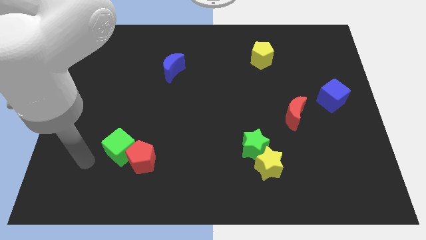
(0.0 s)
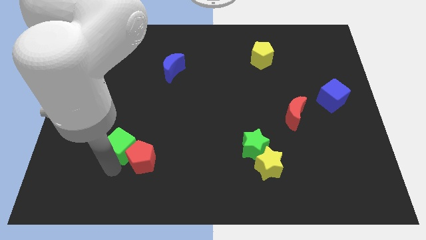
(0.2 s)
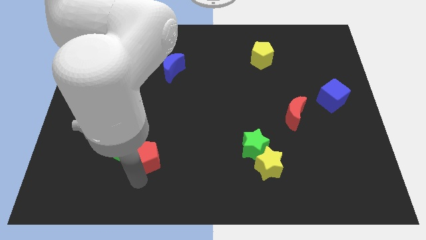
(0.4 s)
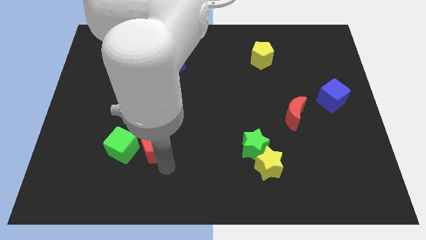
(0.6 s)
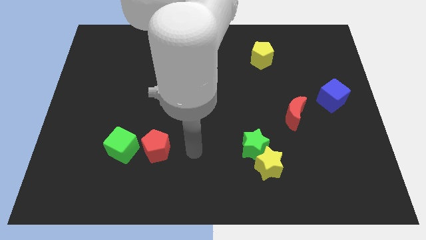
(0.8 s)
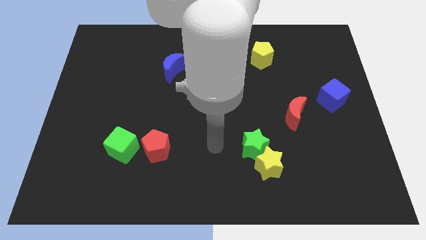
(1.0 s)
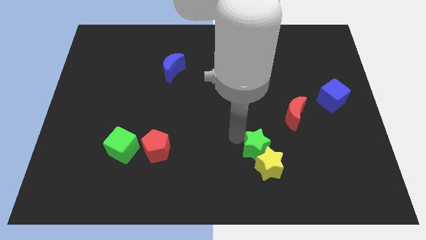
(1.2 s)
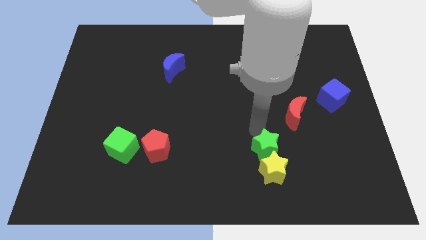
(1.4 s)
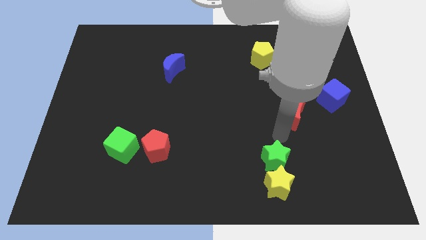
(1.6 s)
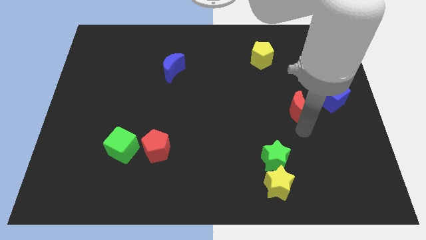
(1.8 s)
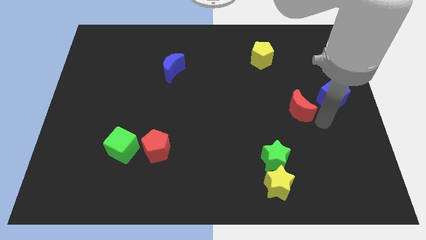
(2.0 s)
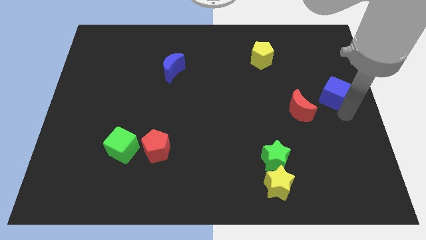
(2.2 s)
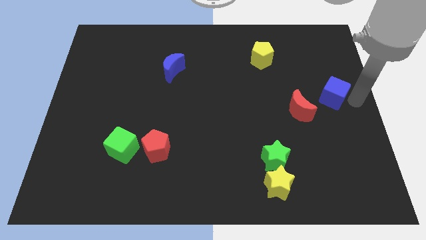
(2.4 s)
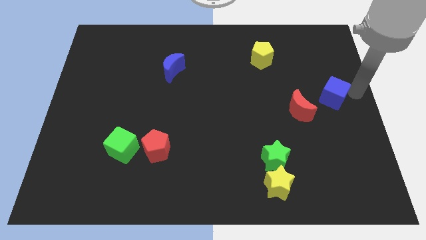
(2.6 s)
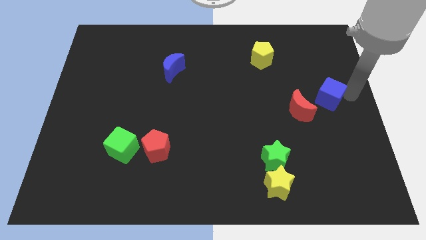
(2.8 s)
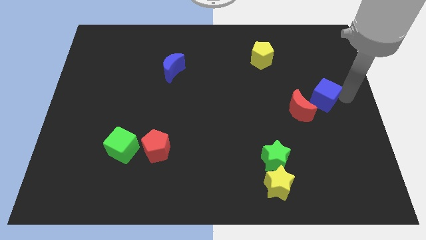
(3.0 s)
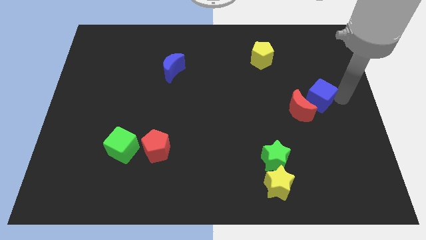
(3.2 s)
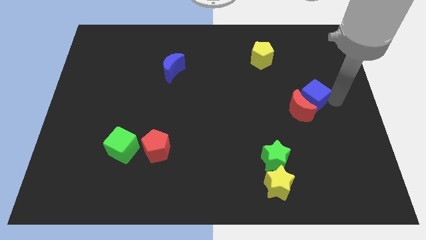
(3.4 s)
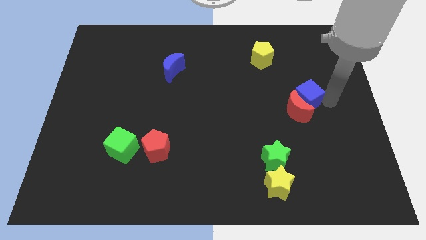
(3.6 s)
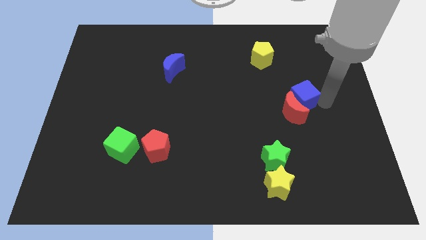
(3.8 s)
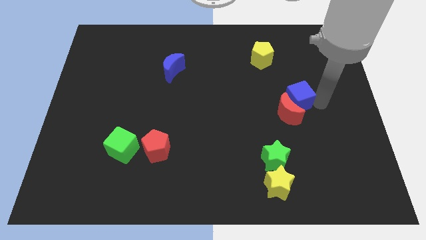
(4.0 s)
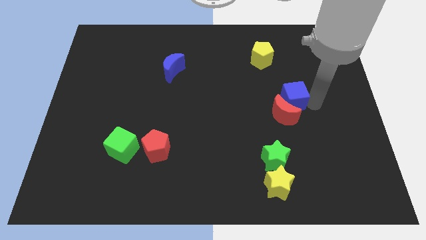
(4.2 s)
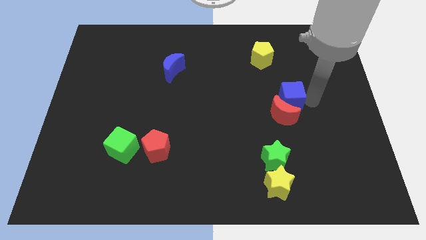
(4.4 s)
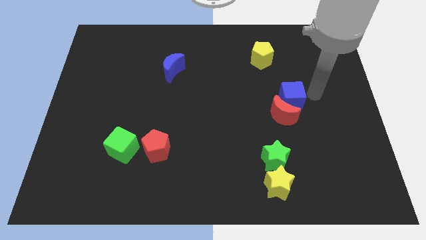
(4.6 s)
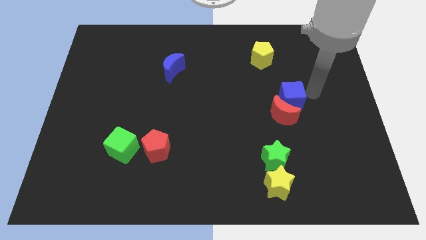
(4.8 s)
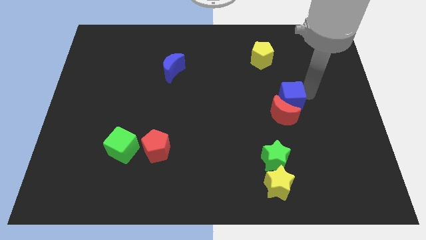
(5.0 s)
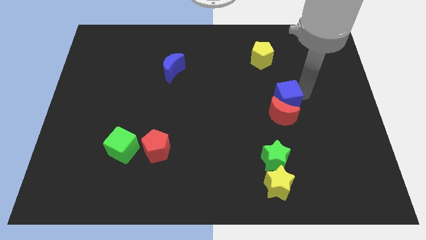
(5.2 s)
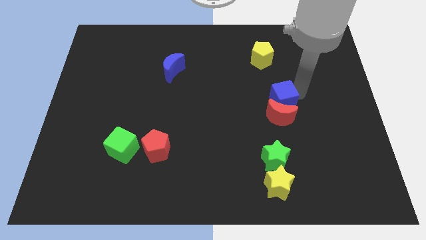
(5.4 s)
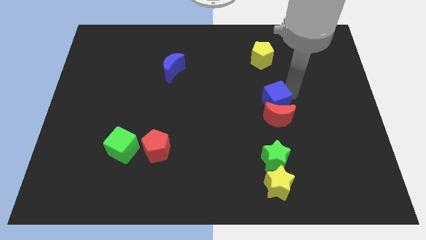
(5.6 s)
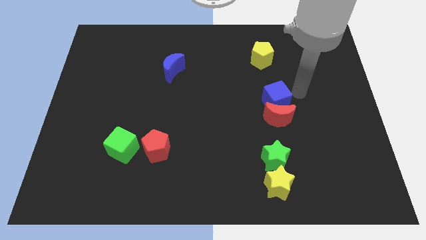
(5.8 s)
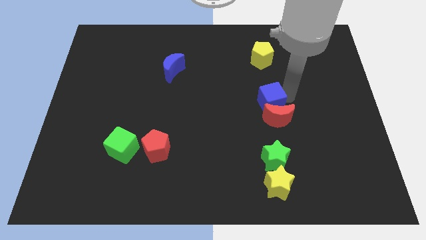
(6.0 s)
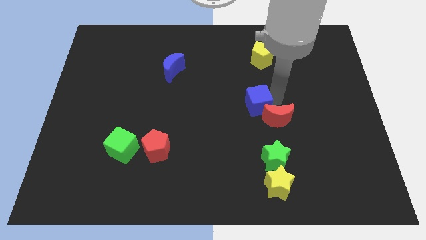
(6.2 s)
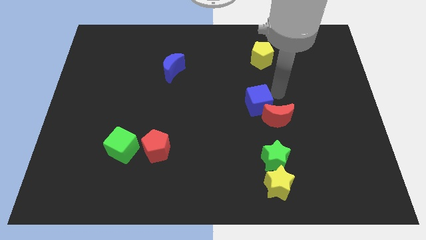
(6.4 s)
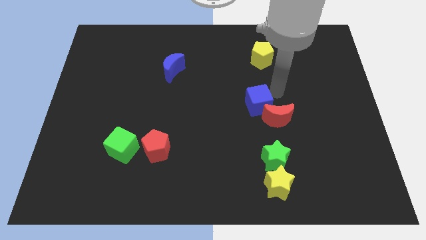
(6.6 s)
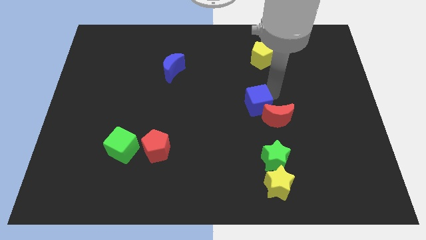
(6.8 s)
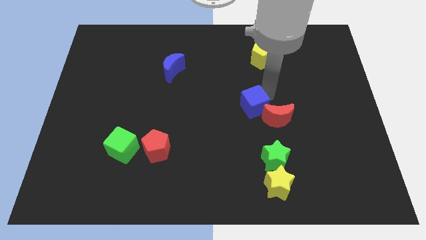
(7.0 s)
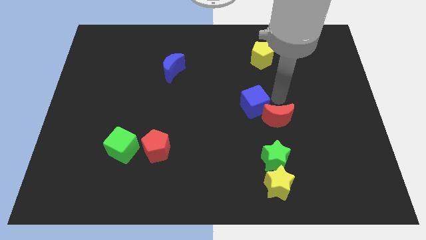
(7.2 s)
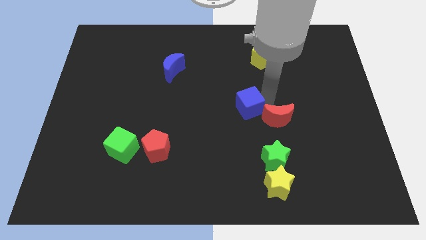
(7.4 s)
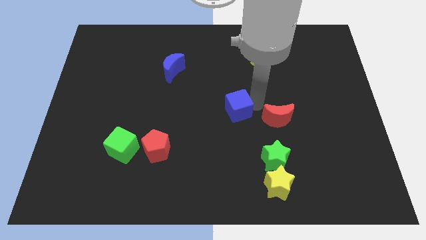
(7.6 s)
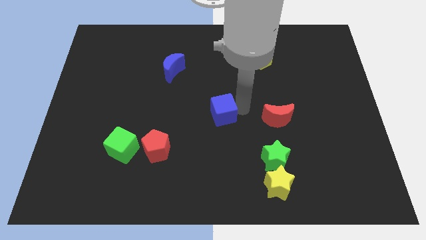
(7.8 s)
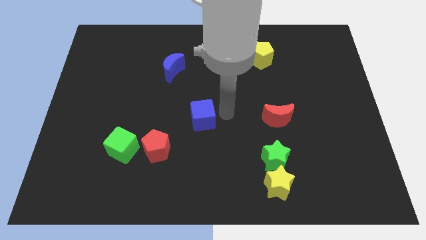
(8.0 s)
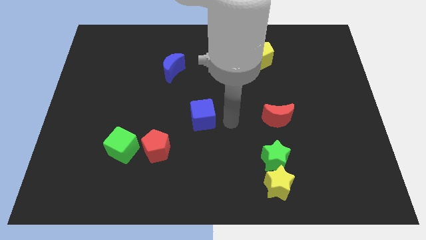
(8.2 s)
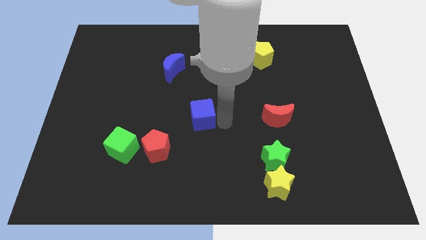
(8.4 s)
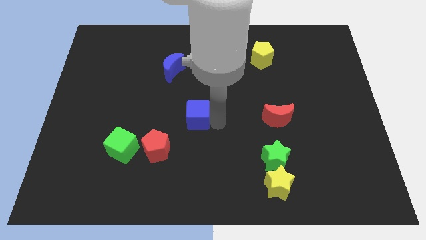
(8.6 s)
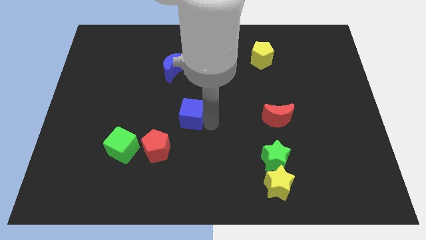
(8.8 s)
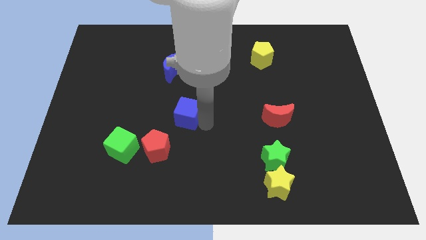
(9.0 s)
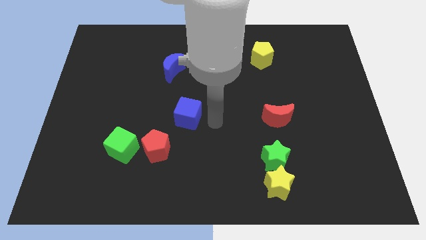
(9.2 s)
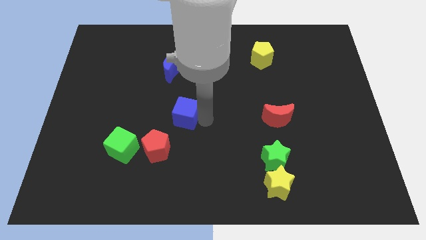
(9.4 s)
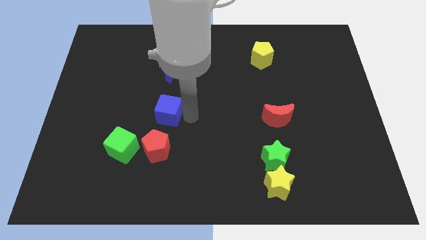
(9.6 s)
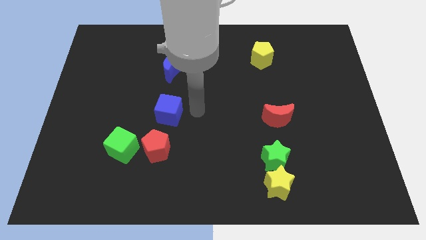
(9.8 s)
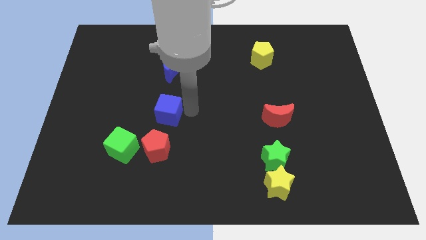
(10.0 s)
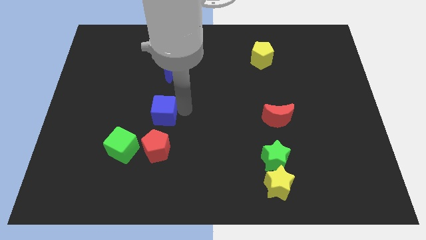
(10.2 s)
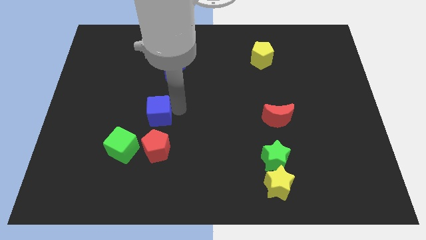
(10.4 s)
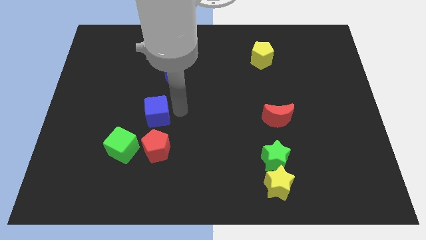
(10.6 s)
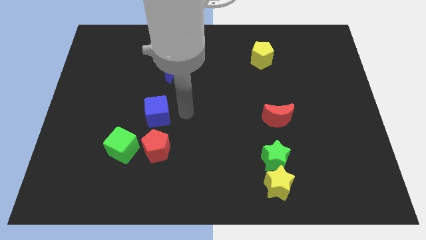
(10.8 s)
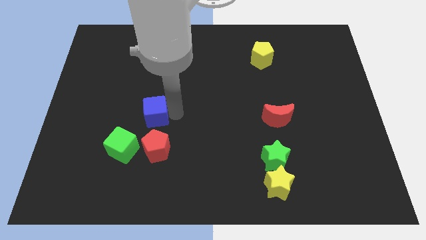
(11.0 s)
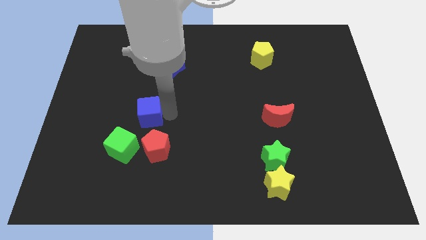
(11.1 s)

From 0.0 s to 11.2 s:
slide the blue cube above the green cube

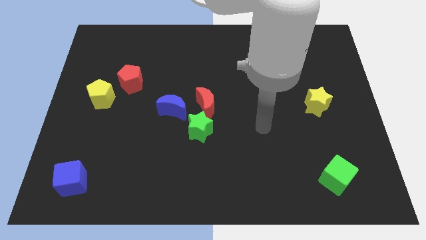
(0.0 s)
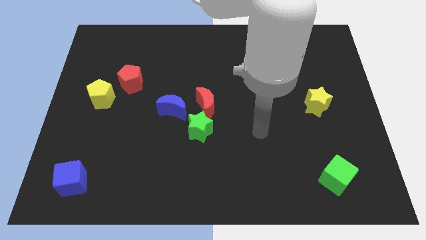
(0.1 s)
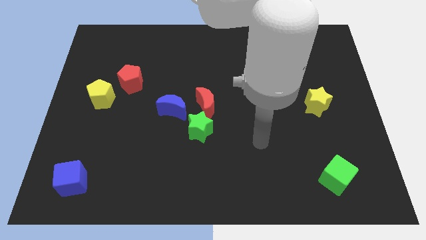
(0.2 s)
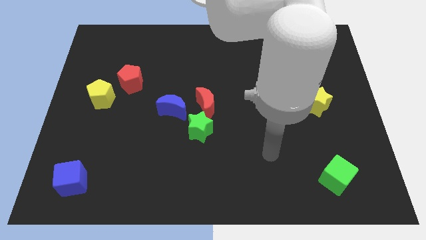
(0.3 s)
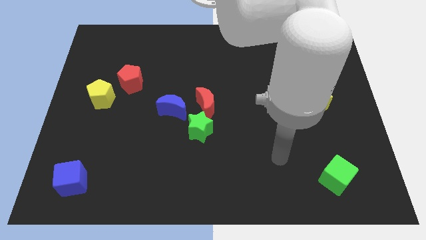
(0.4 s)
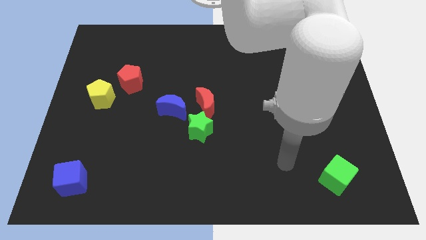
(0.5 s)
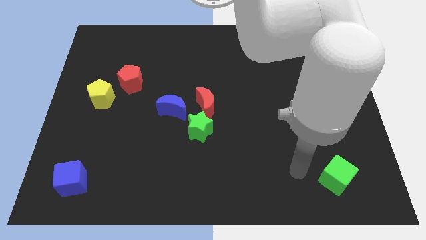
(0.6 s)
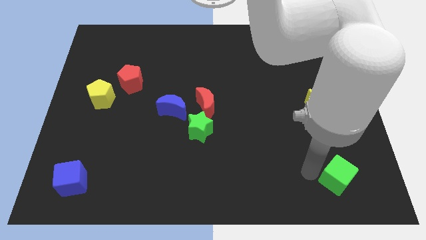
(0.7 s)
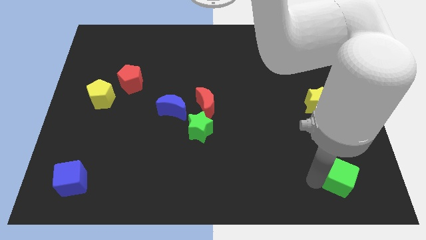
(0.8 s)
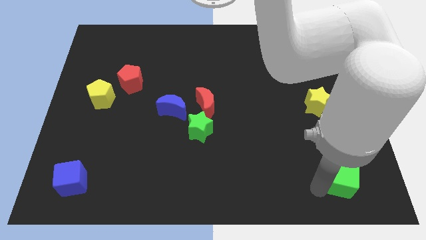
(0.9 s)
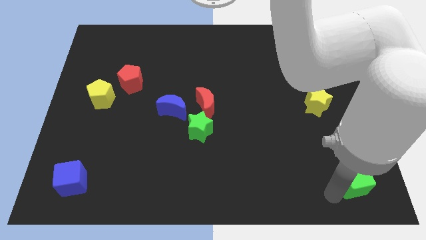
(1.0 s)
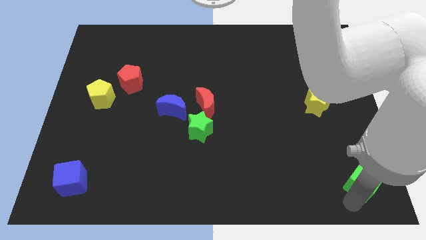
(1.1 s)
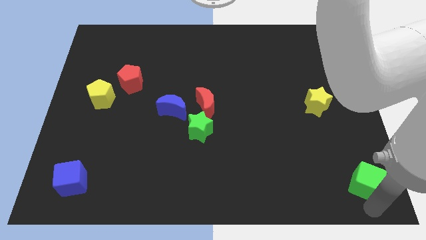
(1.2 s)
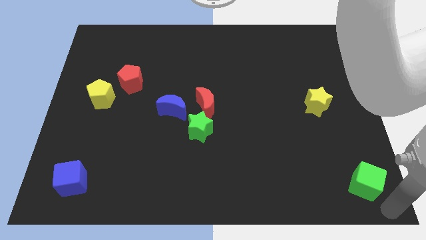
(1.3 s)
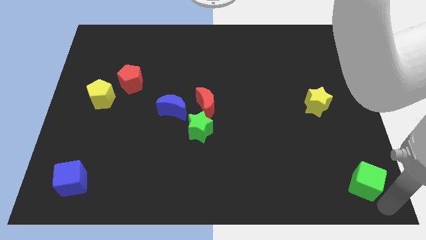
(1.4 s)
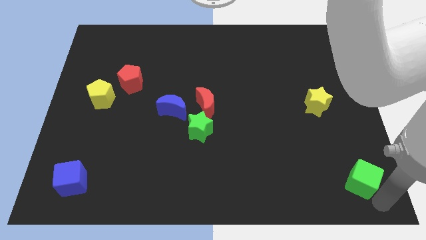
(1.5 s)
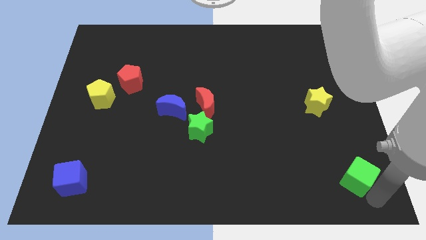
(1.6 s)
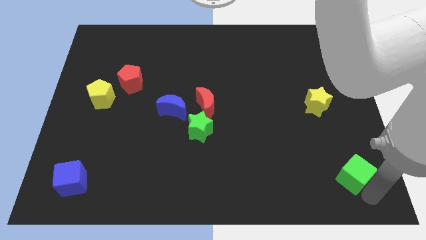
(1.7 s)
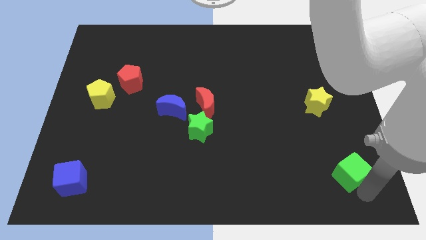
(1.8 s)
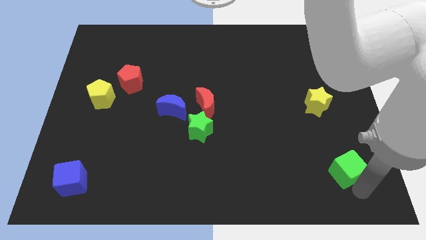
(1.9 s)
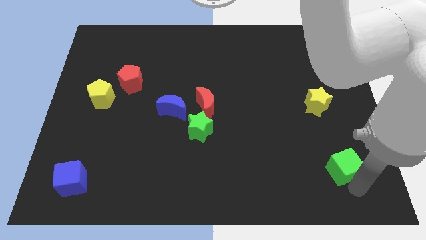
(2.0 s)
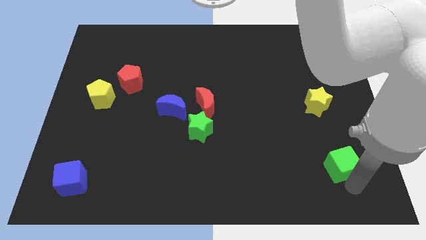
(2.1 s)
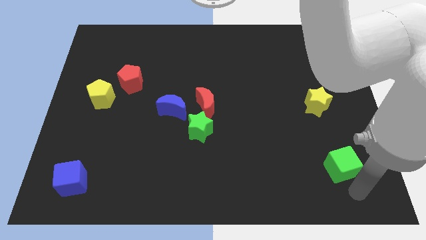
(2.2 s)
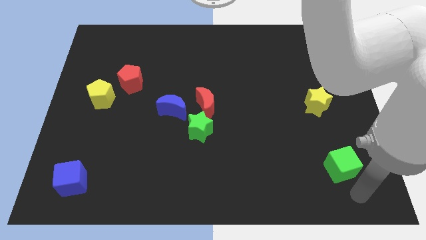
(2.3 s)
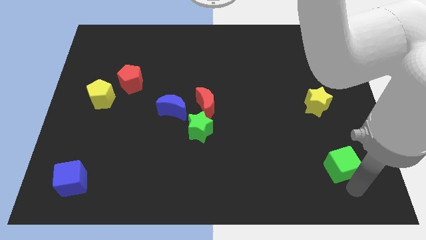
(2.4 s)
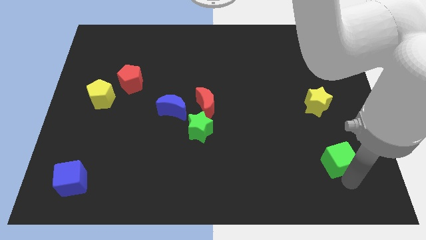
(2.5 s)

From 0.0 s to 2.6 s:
move the green cube below the yellow star

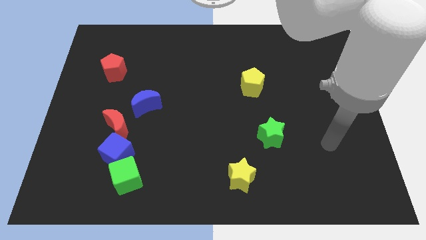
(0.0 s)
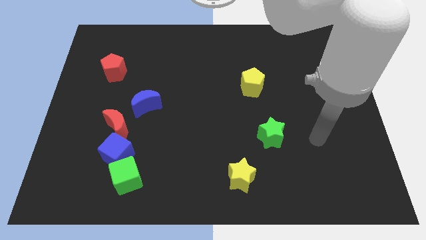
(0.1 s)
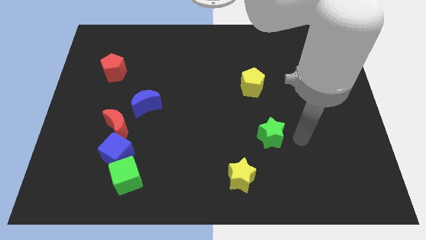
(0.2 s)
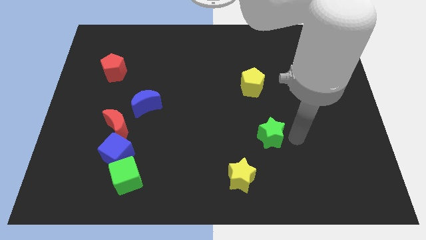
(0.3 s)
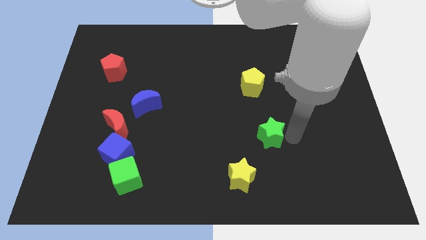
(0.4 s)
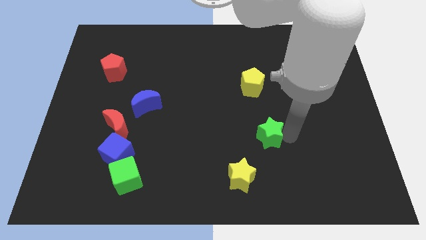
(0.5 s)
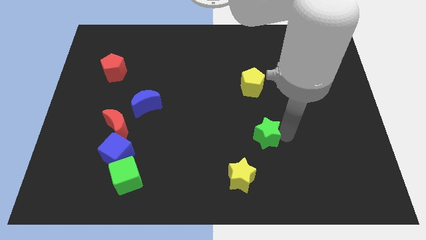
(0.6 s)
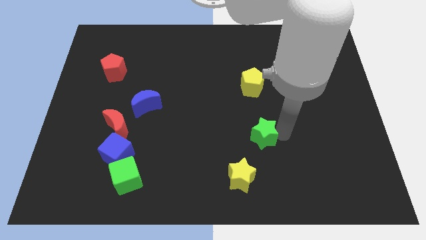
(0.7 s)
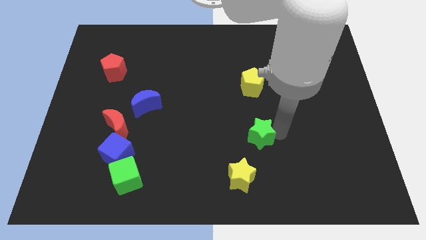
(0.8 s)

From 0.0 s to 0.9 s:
slide the green star above the yellow star
